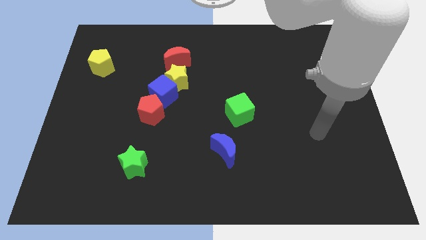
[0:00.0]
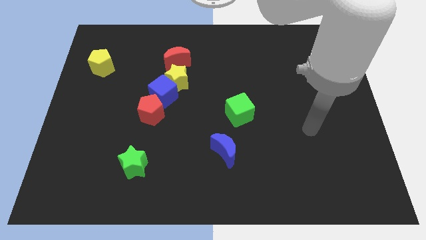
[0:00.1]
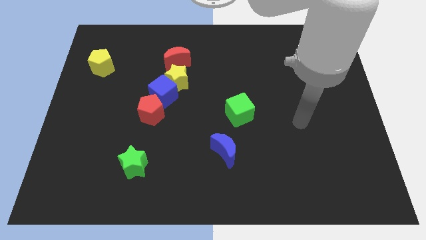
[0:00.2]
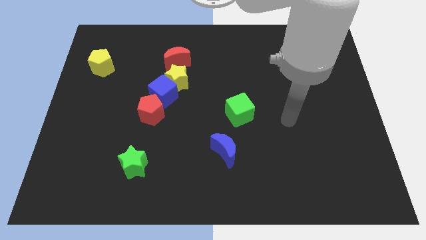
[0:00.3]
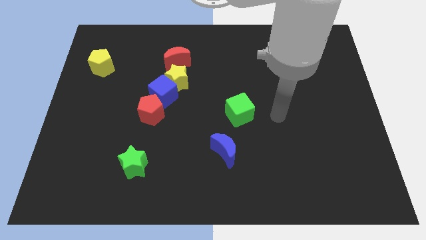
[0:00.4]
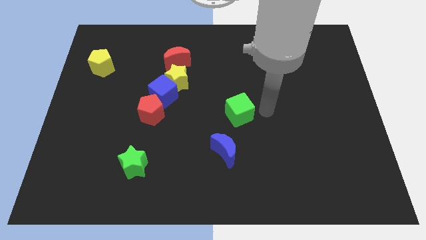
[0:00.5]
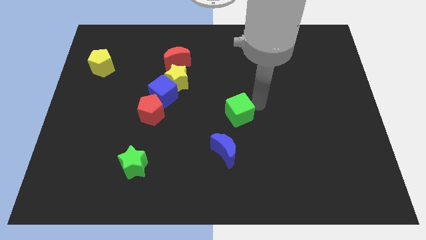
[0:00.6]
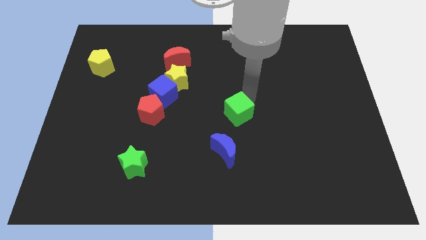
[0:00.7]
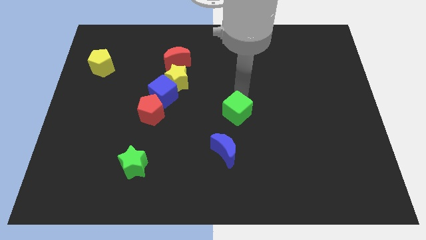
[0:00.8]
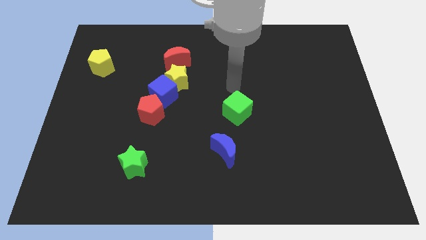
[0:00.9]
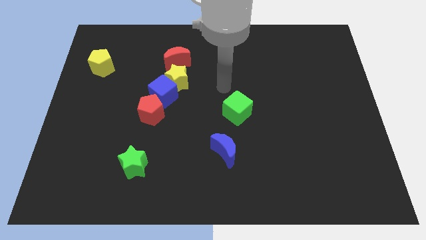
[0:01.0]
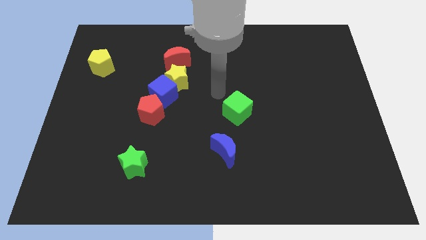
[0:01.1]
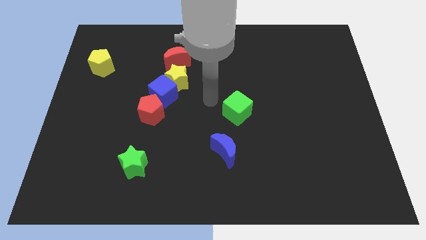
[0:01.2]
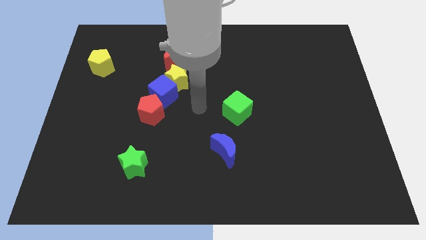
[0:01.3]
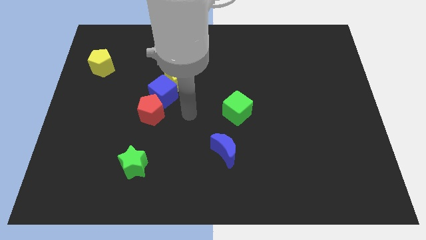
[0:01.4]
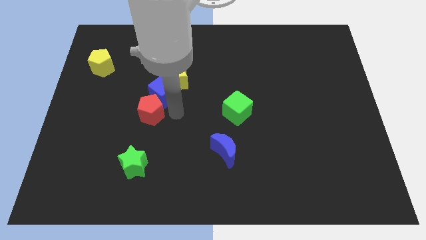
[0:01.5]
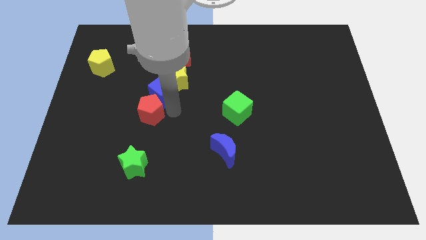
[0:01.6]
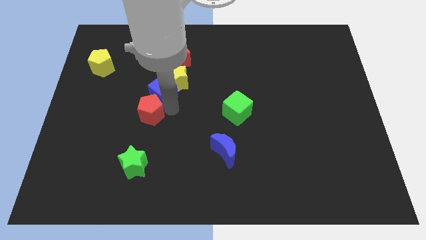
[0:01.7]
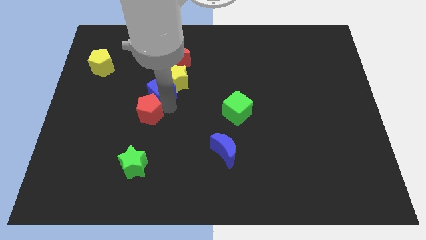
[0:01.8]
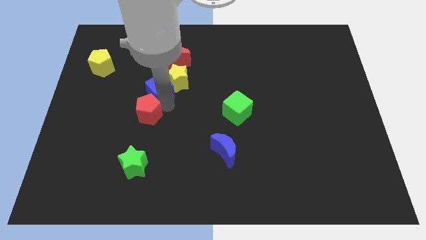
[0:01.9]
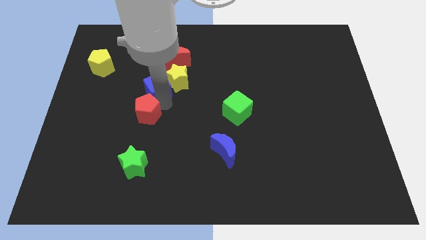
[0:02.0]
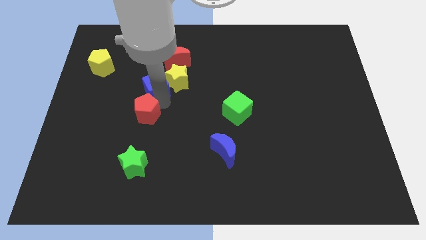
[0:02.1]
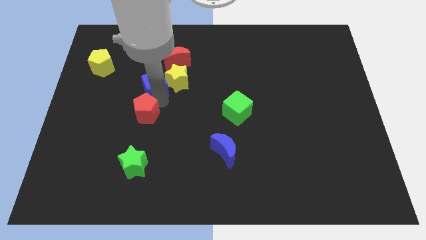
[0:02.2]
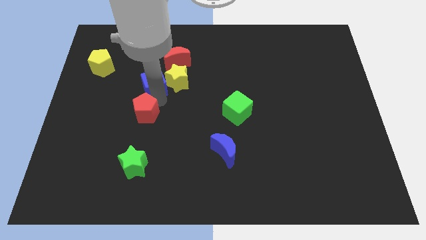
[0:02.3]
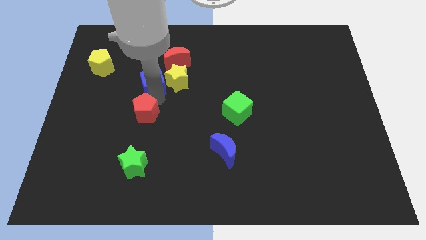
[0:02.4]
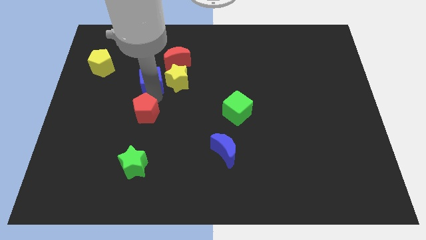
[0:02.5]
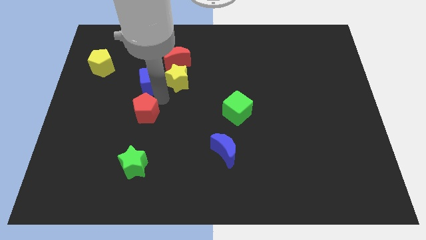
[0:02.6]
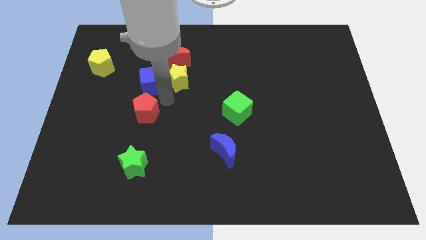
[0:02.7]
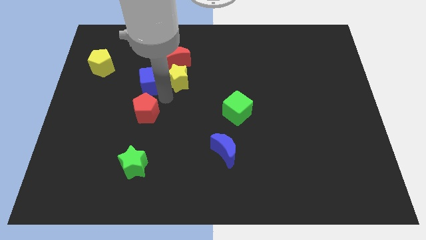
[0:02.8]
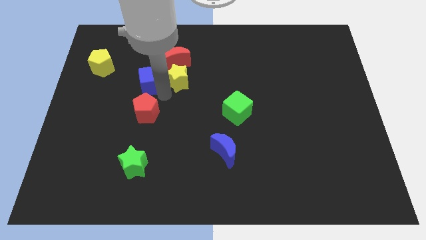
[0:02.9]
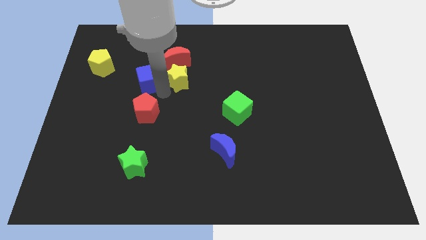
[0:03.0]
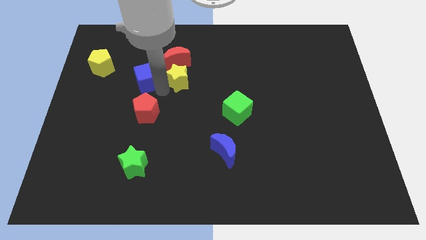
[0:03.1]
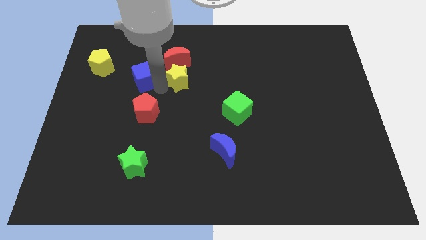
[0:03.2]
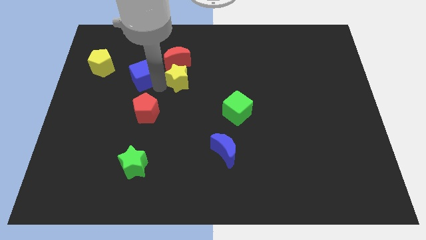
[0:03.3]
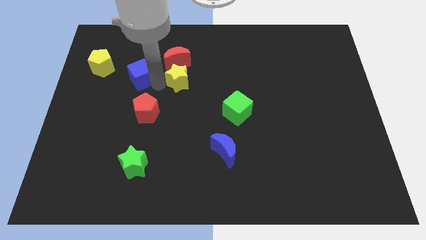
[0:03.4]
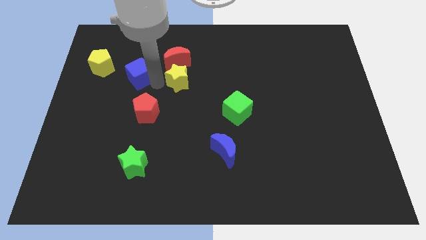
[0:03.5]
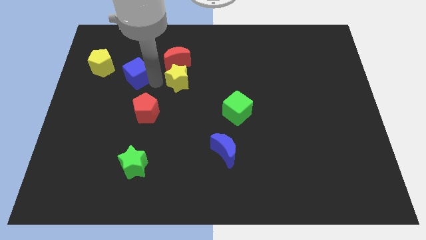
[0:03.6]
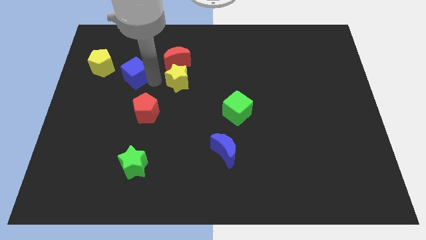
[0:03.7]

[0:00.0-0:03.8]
separate the blue cube from the yellow star and red pentagon

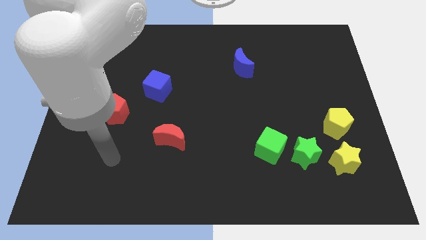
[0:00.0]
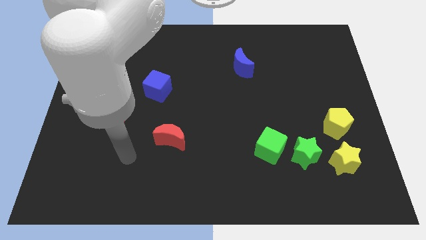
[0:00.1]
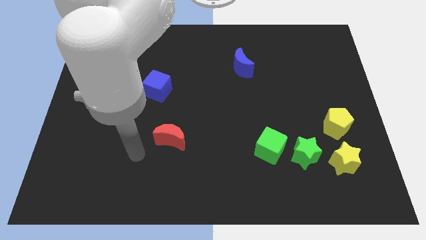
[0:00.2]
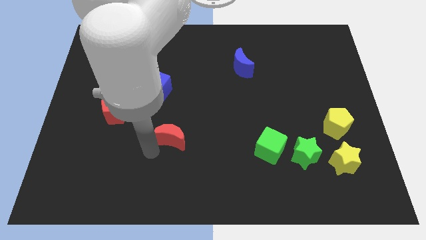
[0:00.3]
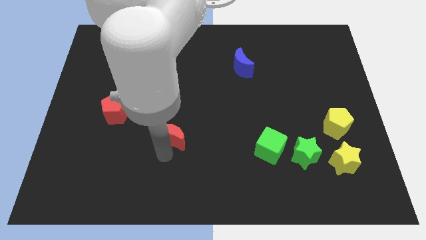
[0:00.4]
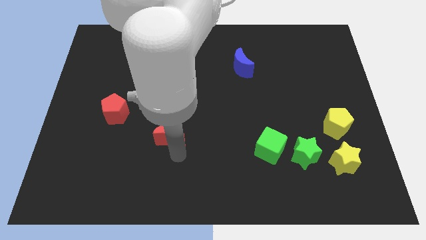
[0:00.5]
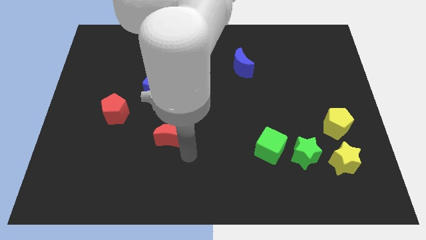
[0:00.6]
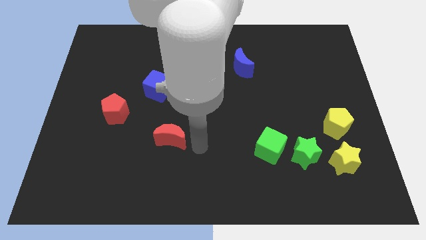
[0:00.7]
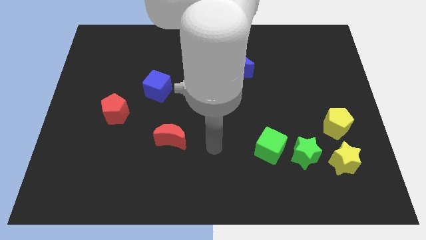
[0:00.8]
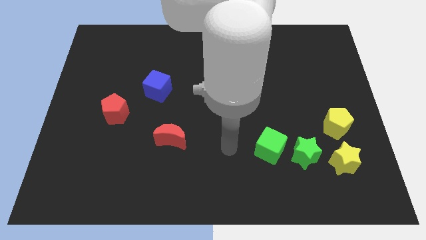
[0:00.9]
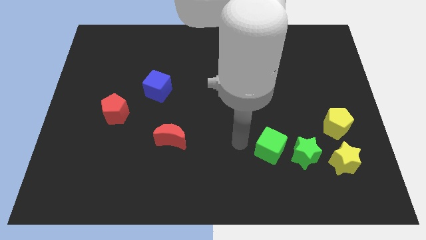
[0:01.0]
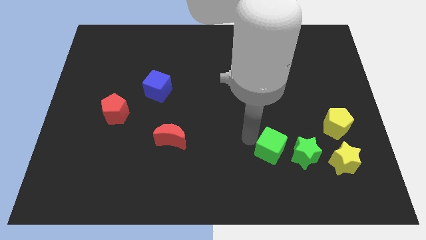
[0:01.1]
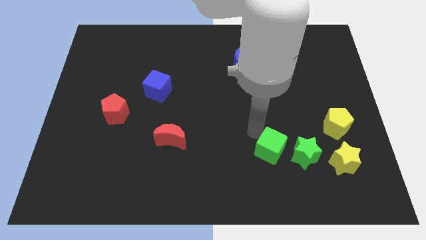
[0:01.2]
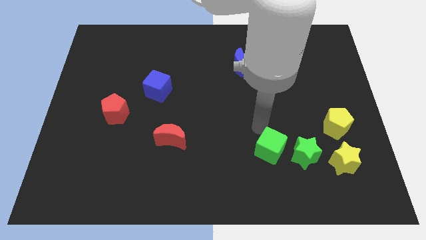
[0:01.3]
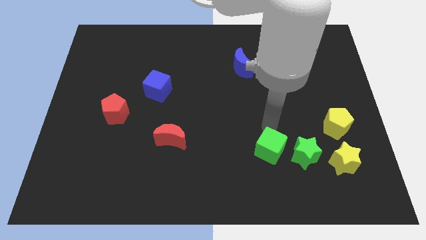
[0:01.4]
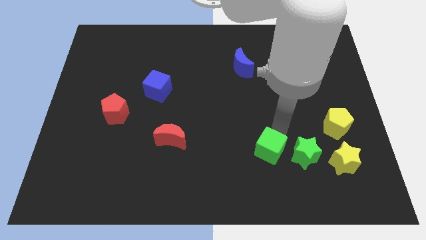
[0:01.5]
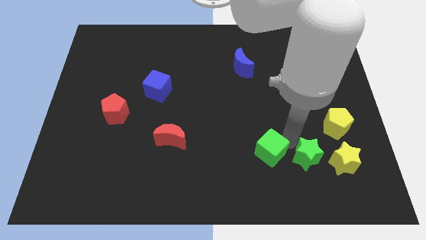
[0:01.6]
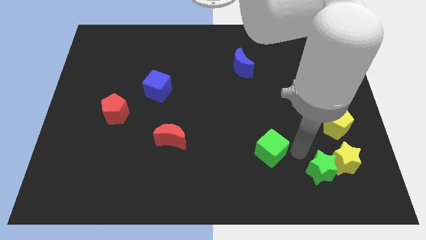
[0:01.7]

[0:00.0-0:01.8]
pull the green cube apart from the green star

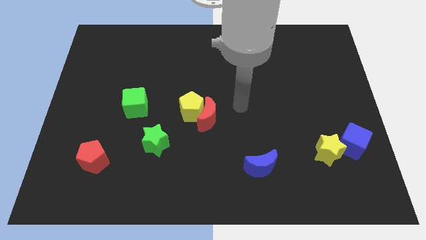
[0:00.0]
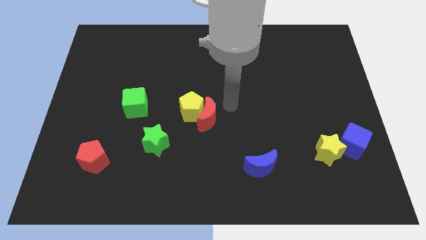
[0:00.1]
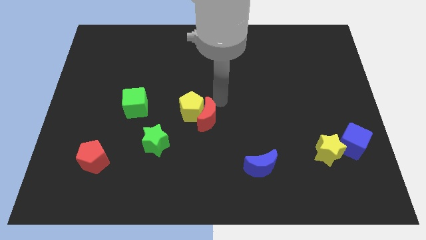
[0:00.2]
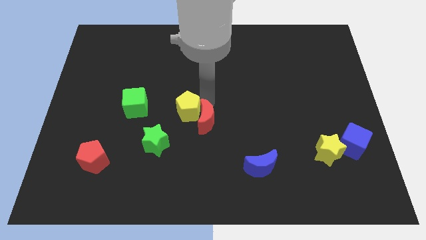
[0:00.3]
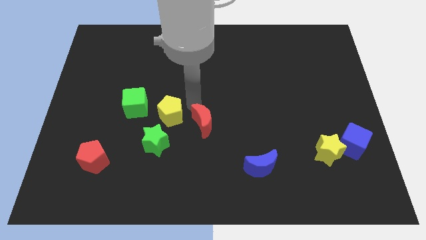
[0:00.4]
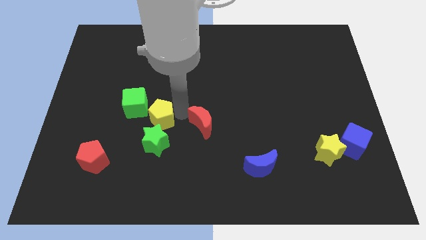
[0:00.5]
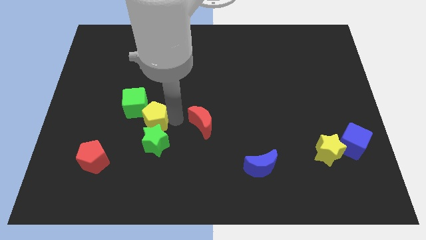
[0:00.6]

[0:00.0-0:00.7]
separate the red moon from the yellow pentagon

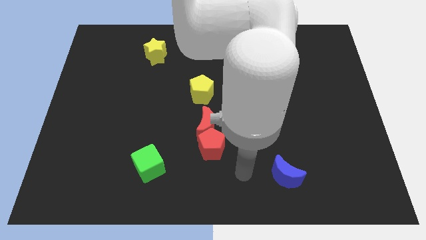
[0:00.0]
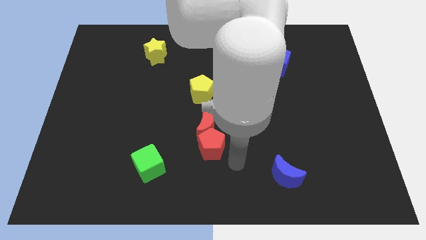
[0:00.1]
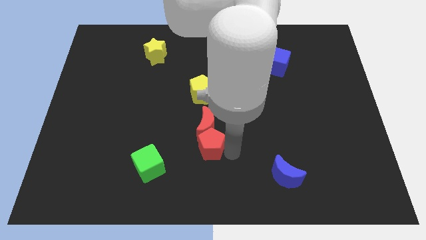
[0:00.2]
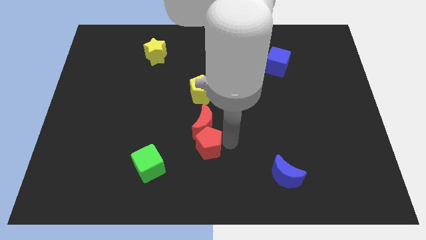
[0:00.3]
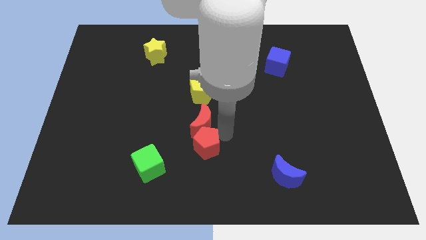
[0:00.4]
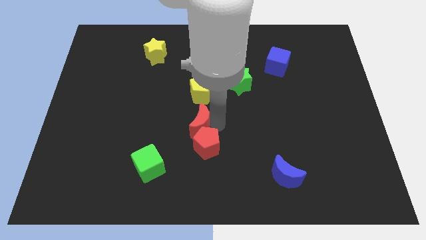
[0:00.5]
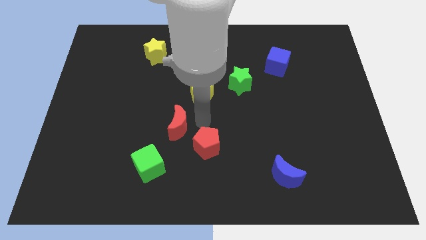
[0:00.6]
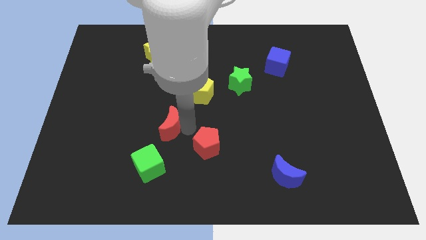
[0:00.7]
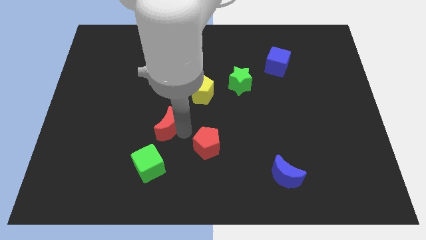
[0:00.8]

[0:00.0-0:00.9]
move the red pentagon away from the red moon

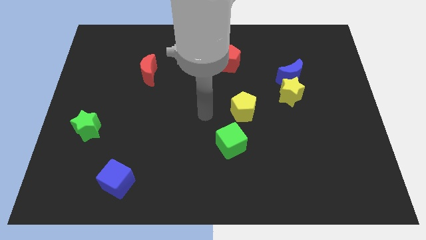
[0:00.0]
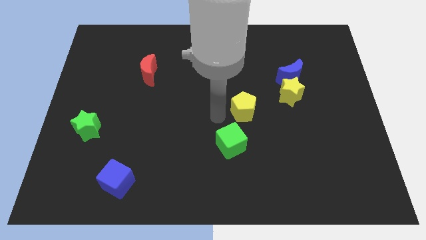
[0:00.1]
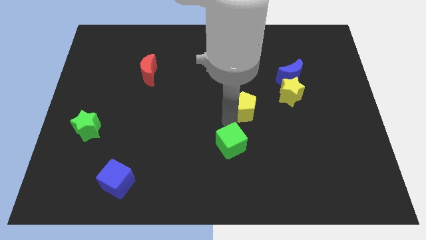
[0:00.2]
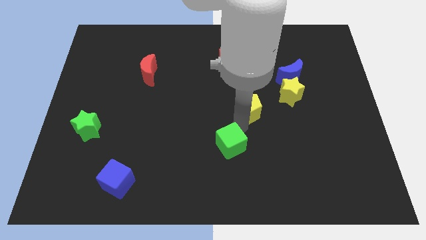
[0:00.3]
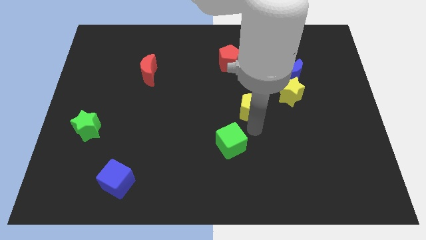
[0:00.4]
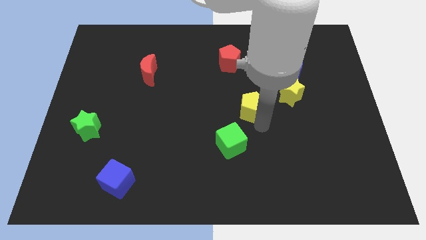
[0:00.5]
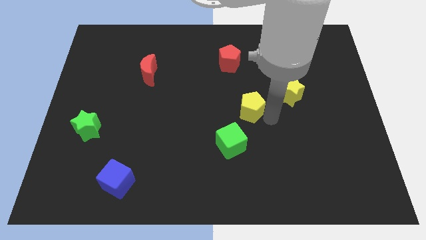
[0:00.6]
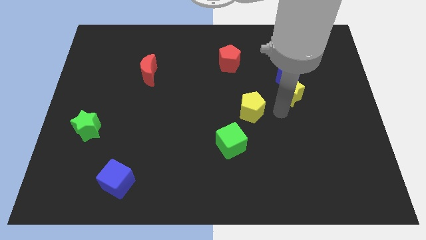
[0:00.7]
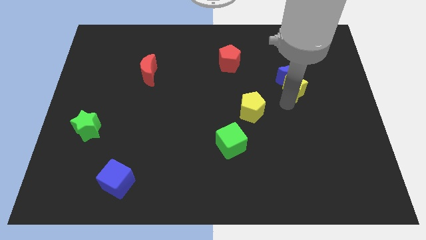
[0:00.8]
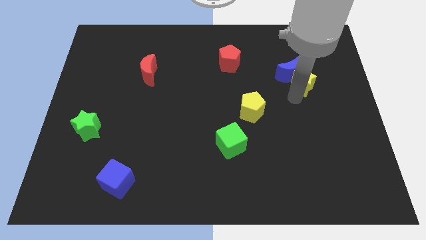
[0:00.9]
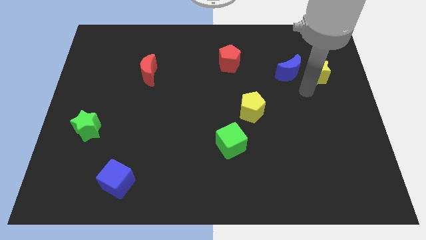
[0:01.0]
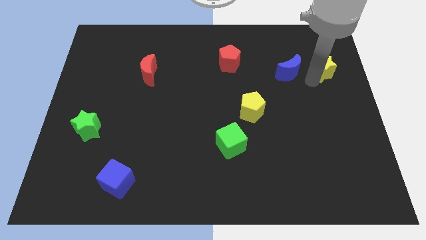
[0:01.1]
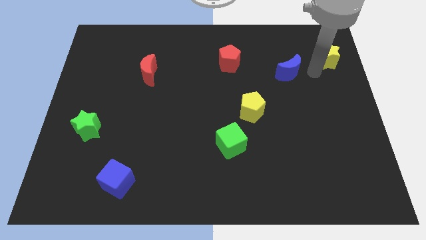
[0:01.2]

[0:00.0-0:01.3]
move the blue moon away from the yellow star

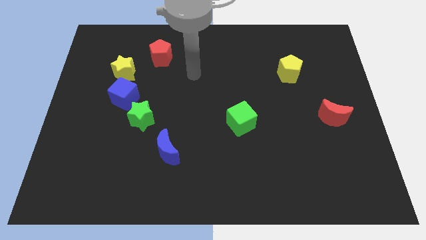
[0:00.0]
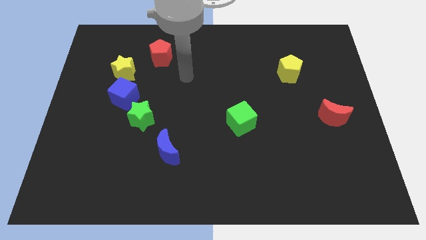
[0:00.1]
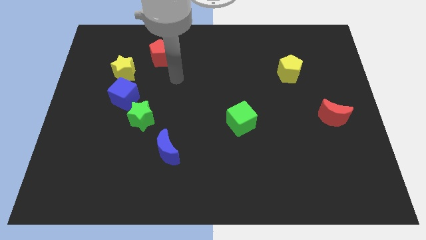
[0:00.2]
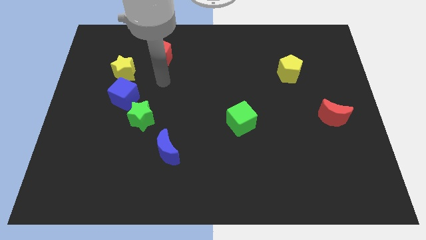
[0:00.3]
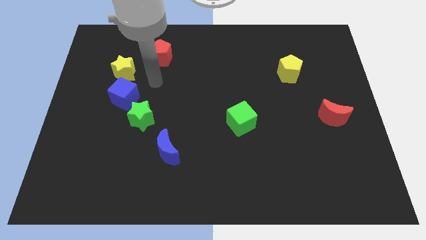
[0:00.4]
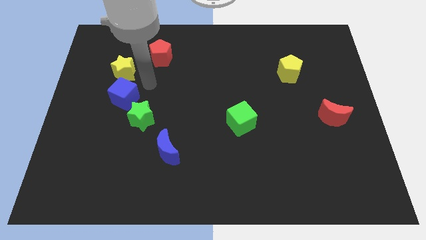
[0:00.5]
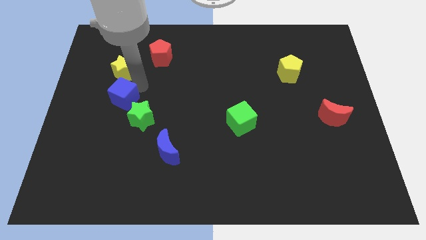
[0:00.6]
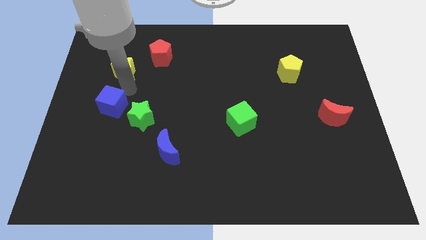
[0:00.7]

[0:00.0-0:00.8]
move the yellow star away from the blue cube
